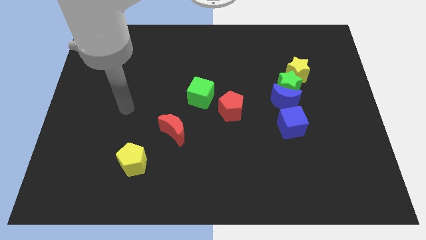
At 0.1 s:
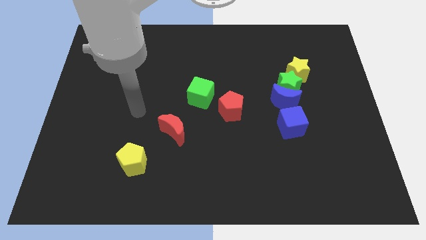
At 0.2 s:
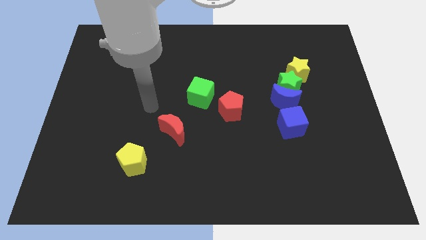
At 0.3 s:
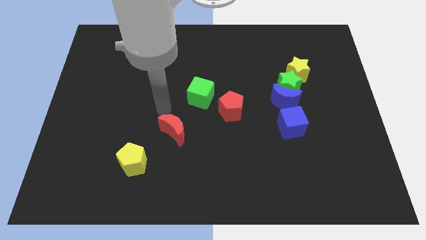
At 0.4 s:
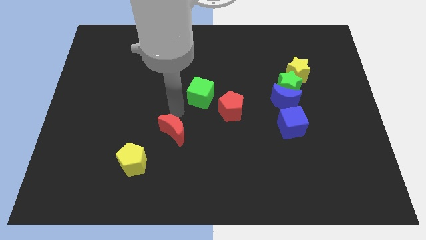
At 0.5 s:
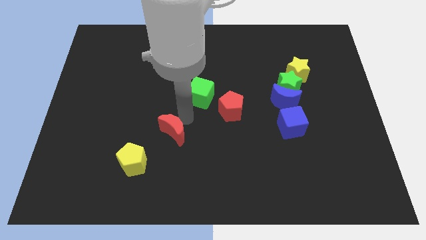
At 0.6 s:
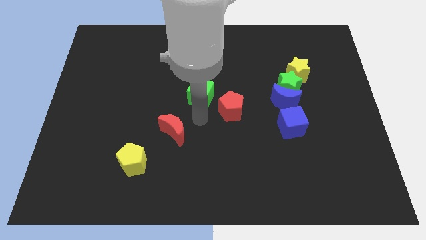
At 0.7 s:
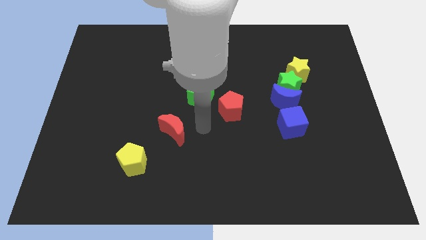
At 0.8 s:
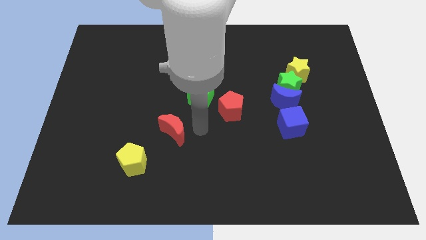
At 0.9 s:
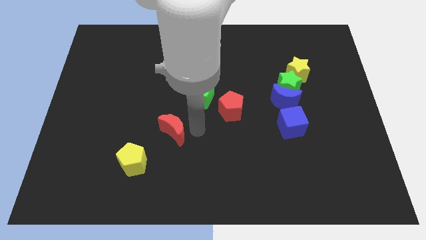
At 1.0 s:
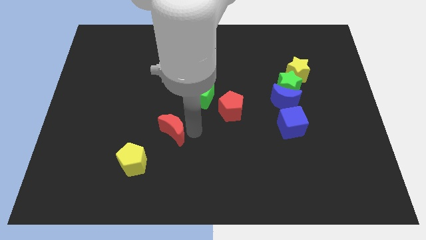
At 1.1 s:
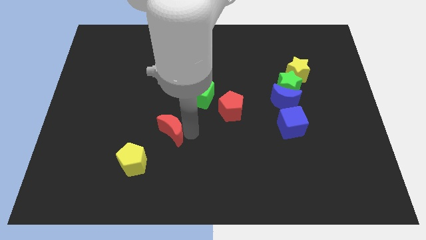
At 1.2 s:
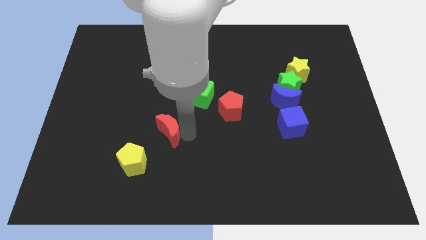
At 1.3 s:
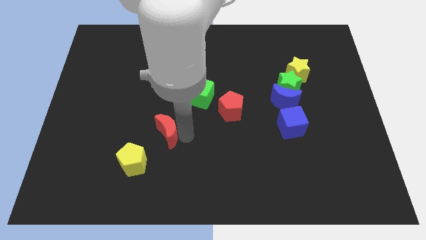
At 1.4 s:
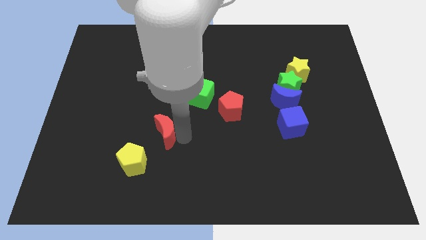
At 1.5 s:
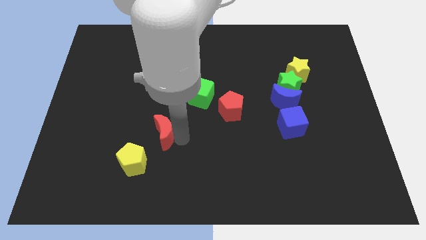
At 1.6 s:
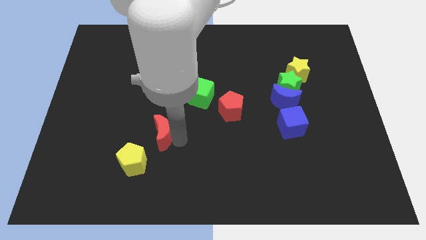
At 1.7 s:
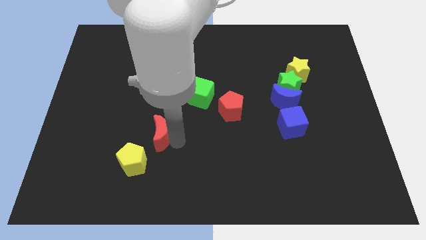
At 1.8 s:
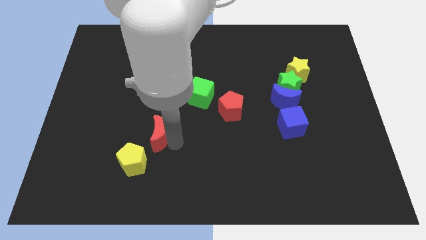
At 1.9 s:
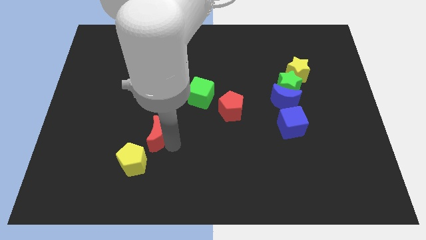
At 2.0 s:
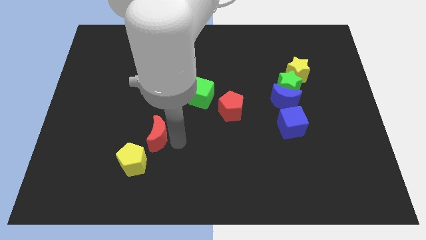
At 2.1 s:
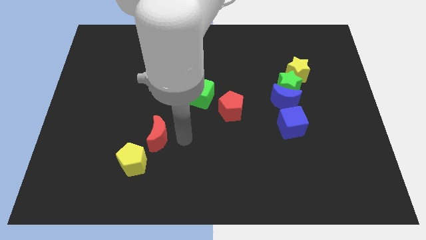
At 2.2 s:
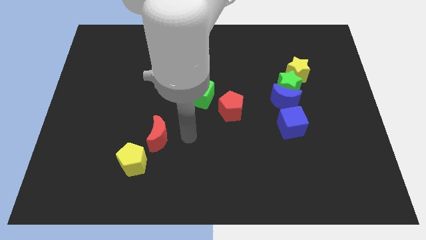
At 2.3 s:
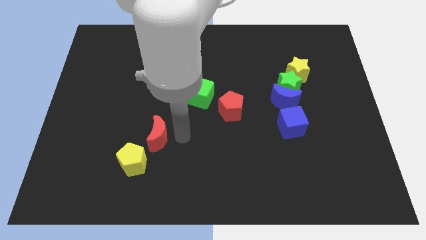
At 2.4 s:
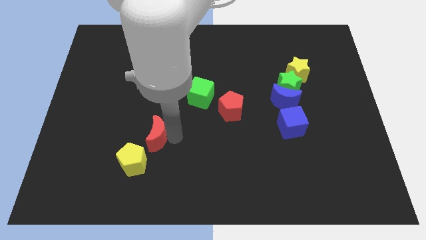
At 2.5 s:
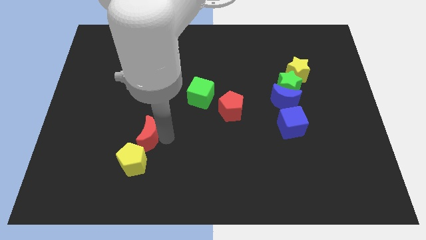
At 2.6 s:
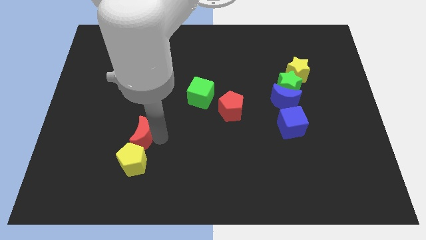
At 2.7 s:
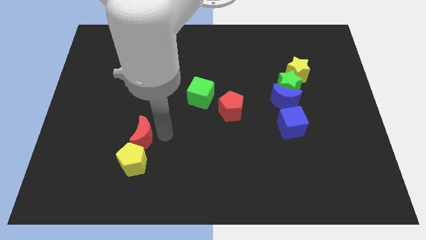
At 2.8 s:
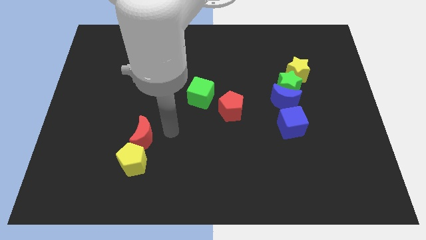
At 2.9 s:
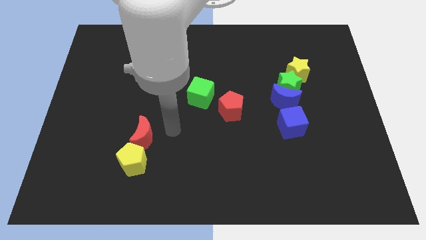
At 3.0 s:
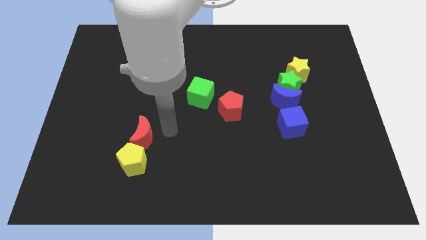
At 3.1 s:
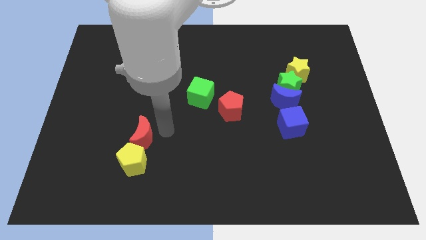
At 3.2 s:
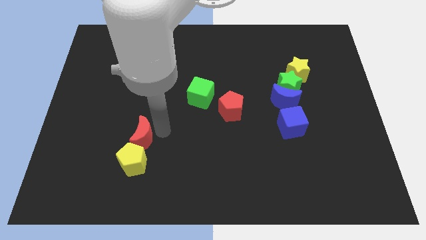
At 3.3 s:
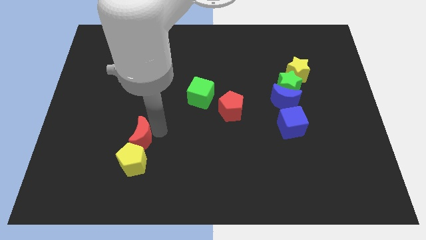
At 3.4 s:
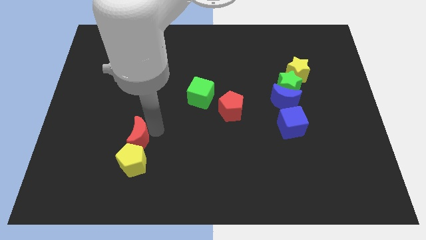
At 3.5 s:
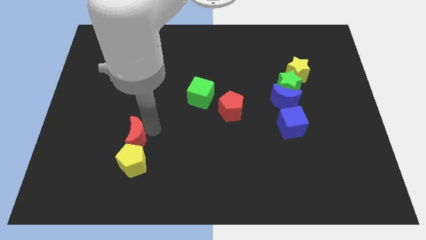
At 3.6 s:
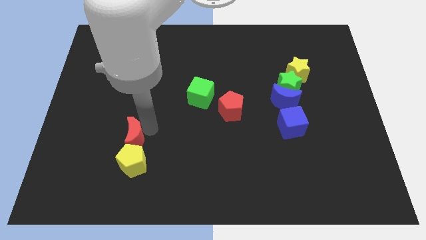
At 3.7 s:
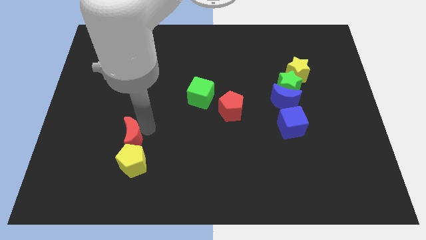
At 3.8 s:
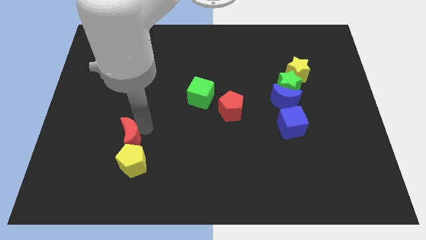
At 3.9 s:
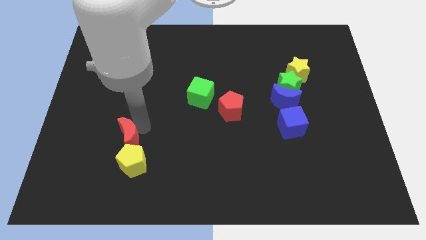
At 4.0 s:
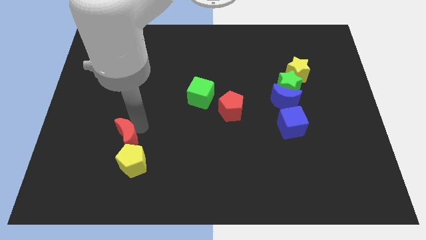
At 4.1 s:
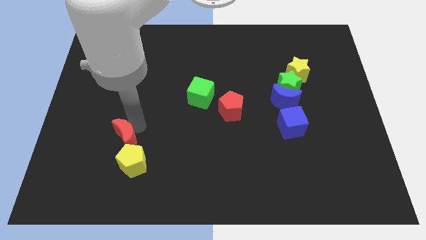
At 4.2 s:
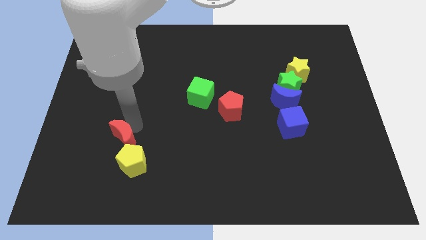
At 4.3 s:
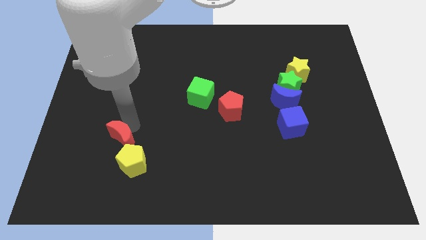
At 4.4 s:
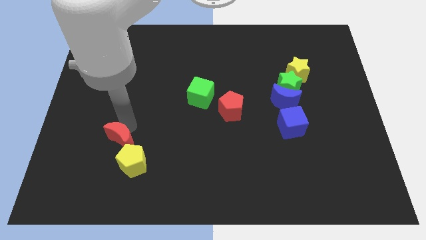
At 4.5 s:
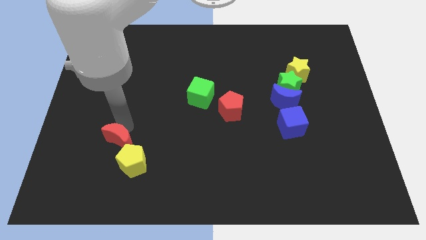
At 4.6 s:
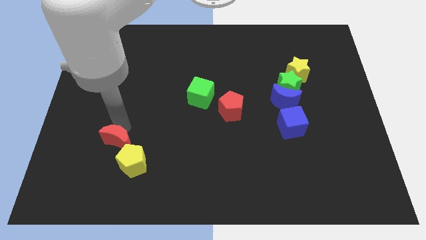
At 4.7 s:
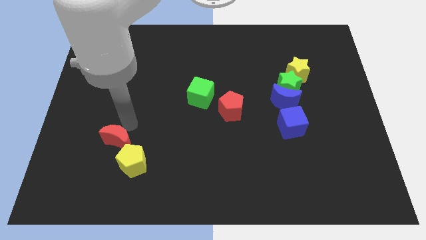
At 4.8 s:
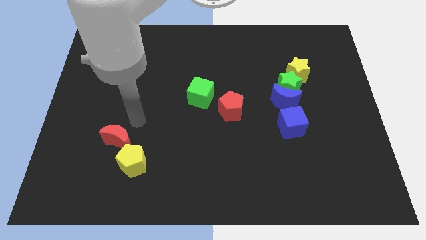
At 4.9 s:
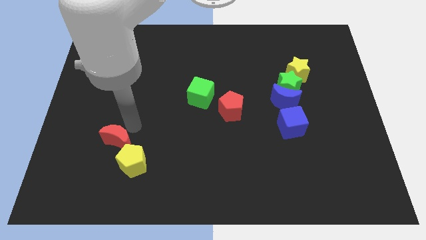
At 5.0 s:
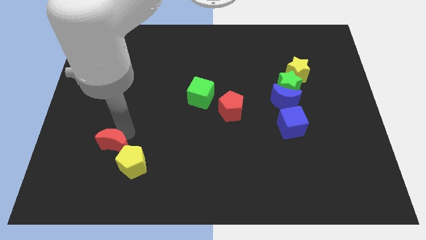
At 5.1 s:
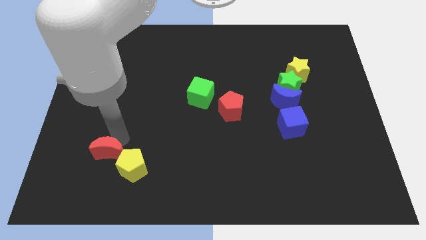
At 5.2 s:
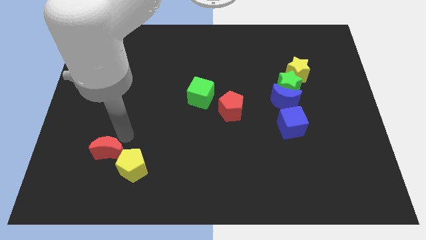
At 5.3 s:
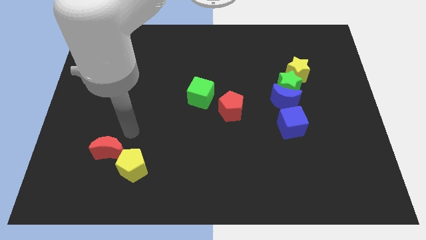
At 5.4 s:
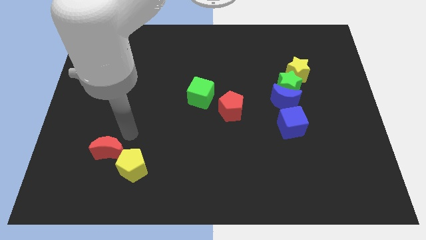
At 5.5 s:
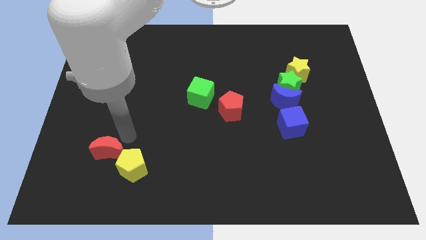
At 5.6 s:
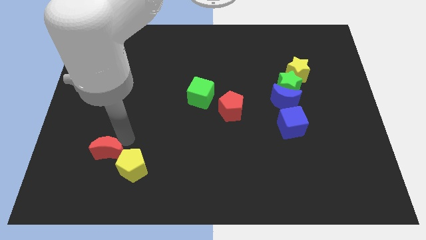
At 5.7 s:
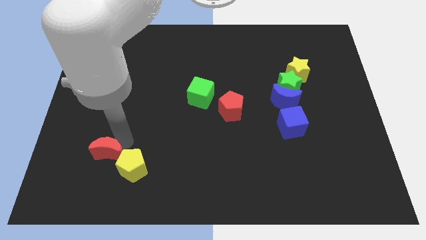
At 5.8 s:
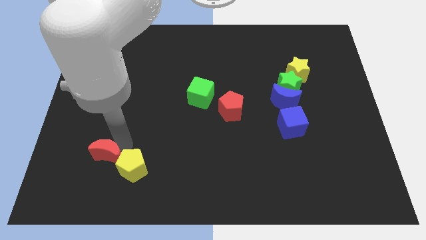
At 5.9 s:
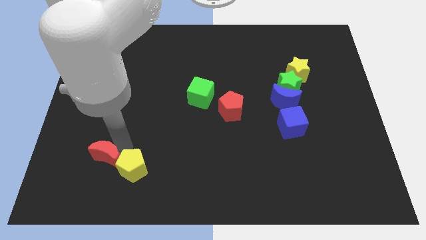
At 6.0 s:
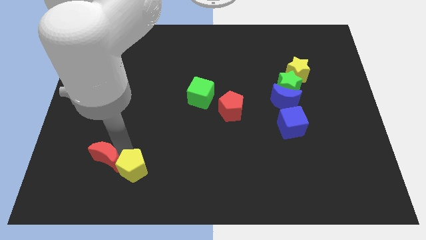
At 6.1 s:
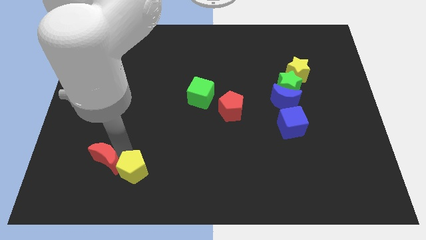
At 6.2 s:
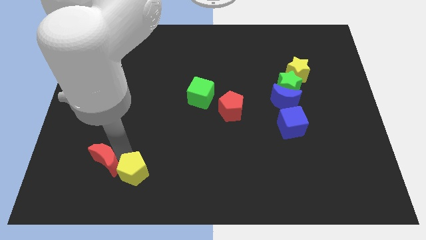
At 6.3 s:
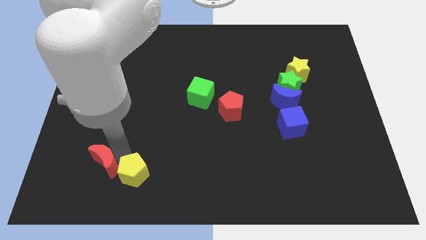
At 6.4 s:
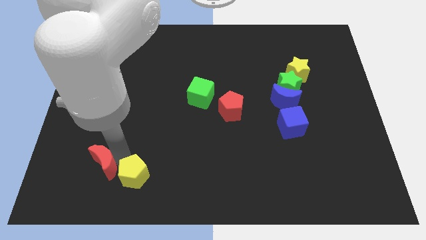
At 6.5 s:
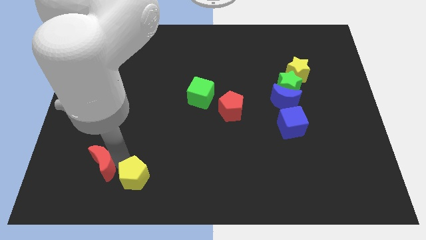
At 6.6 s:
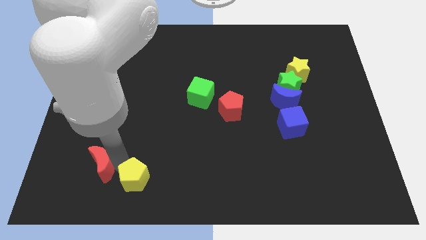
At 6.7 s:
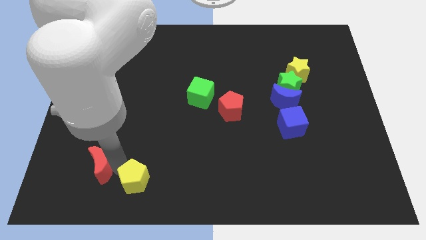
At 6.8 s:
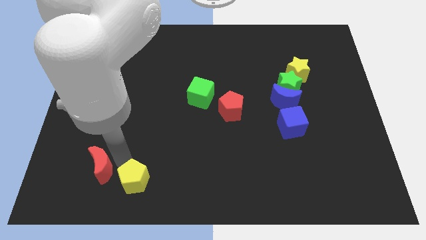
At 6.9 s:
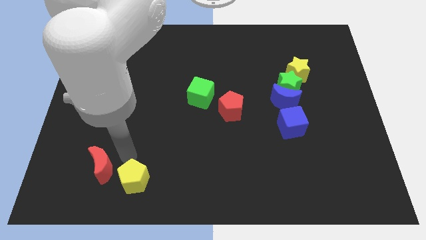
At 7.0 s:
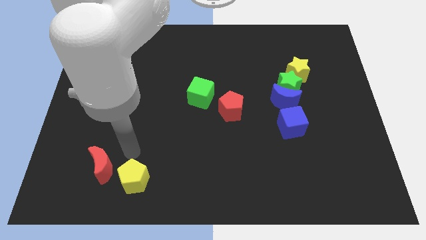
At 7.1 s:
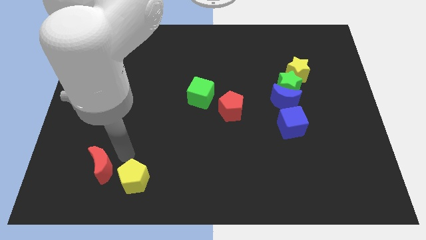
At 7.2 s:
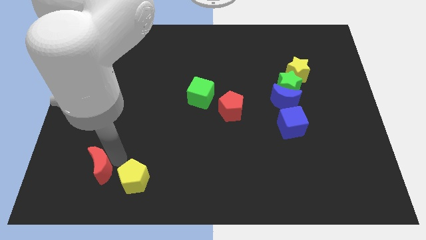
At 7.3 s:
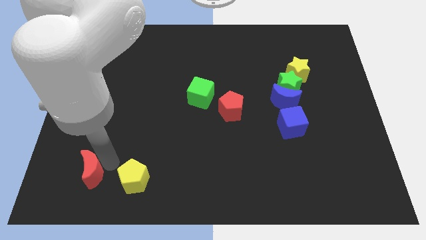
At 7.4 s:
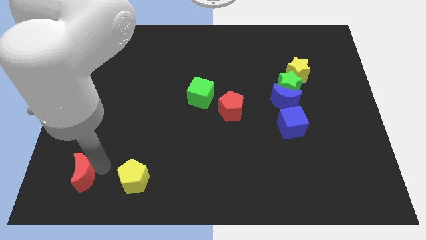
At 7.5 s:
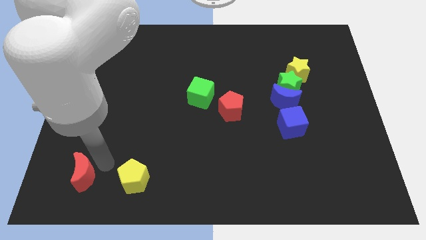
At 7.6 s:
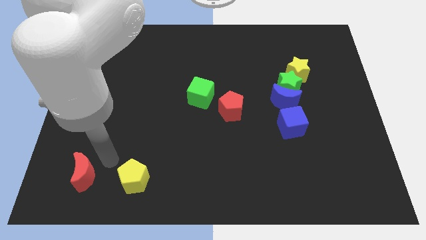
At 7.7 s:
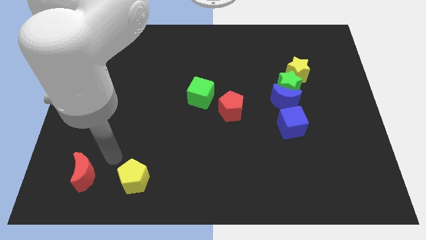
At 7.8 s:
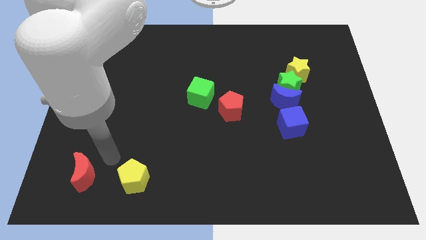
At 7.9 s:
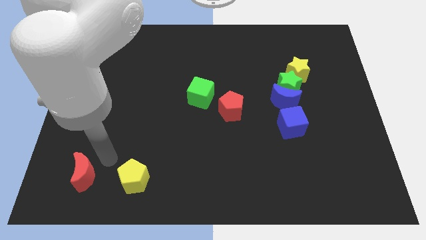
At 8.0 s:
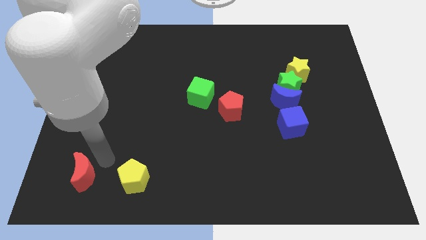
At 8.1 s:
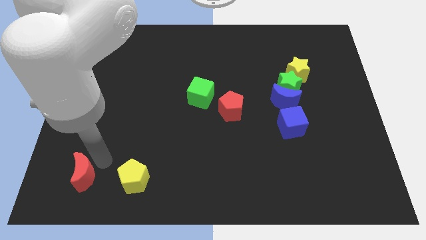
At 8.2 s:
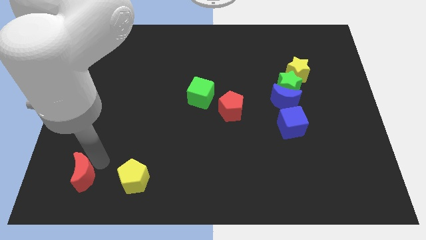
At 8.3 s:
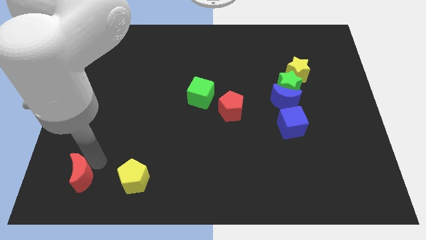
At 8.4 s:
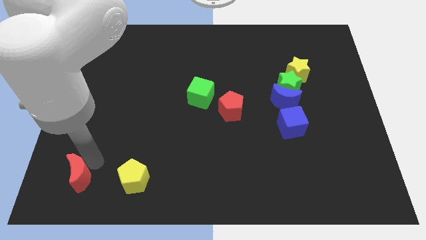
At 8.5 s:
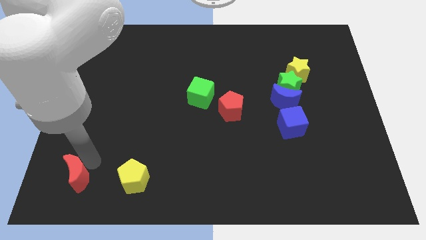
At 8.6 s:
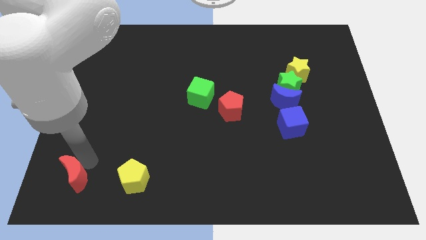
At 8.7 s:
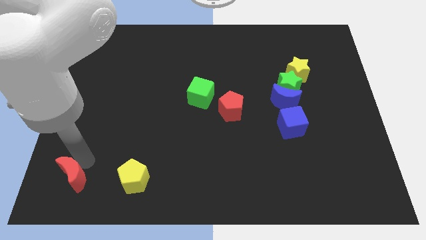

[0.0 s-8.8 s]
move the red moon to the bottom left of the board
